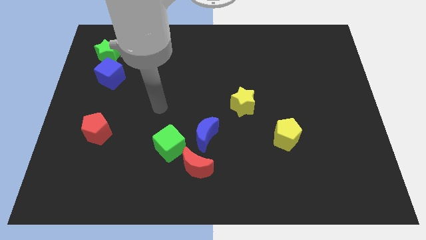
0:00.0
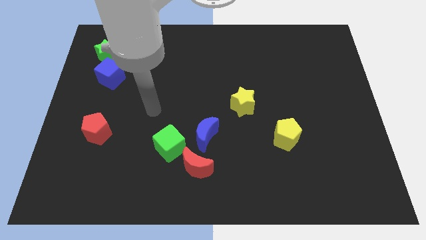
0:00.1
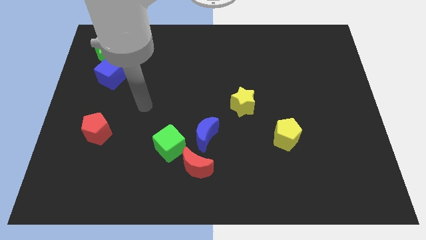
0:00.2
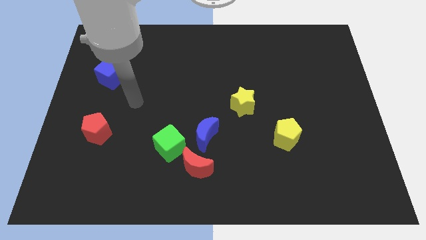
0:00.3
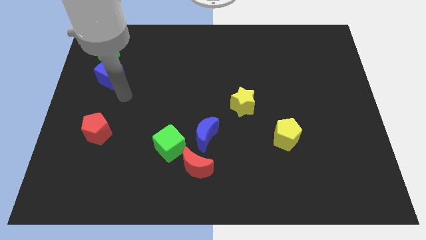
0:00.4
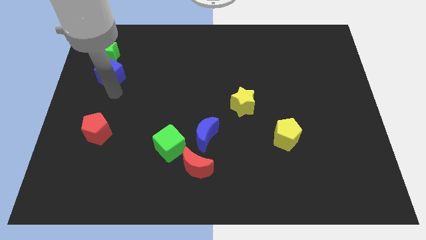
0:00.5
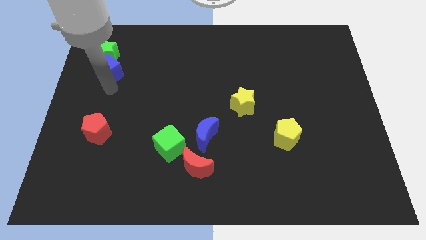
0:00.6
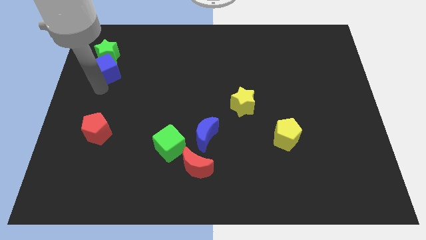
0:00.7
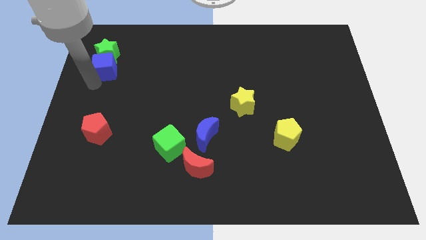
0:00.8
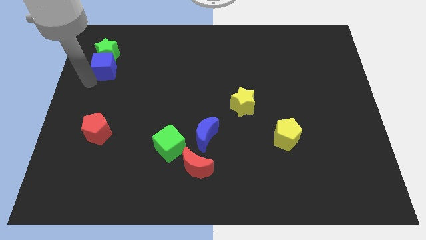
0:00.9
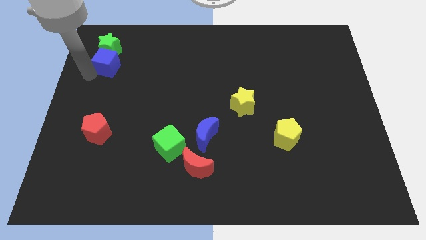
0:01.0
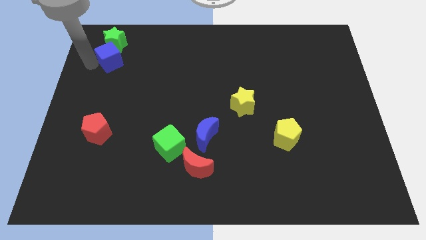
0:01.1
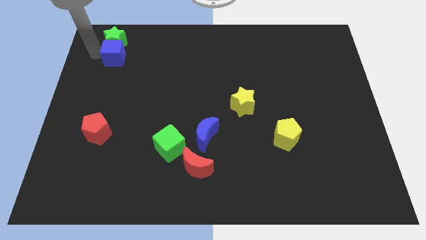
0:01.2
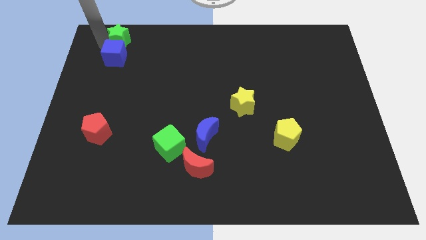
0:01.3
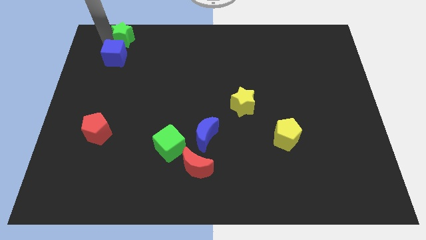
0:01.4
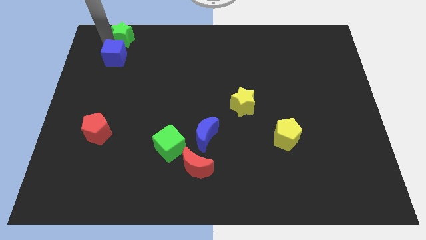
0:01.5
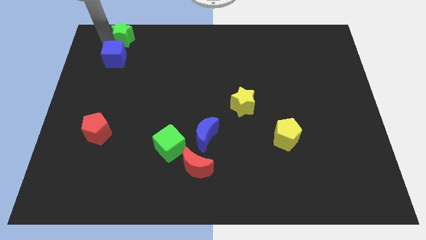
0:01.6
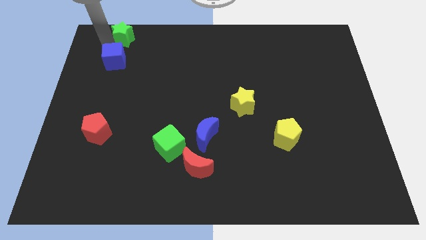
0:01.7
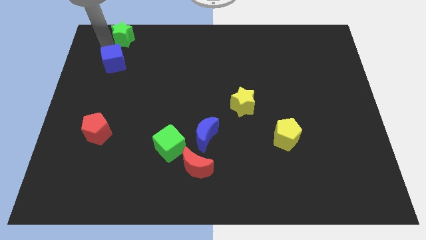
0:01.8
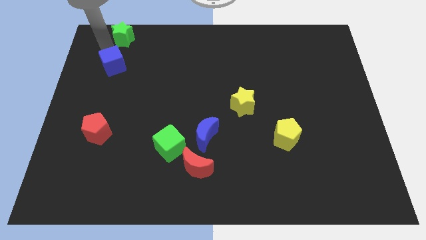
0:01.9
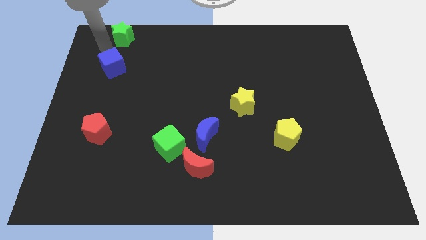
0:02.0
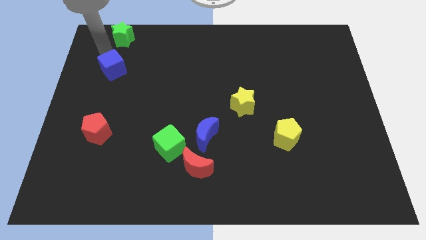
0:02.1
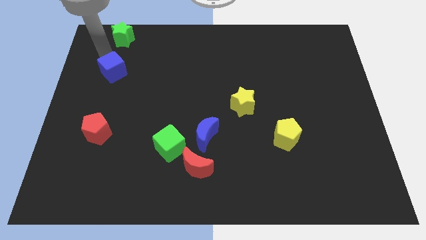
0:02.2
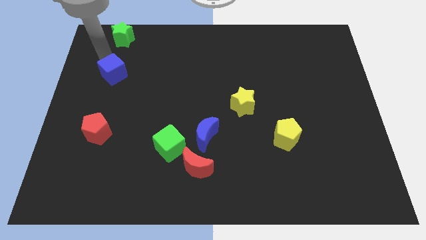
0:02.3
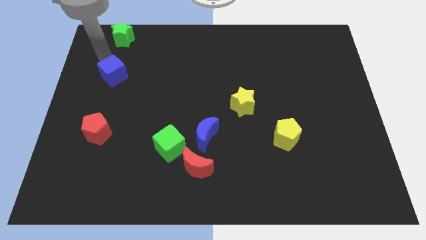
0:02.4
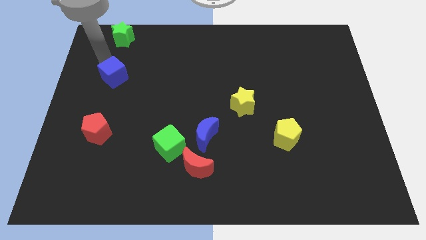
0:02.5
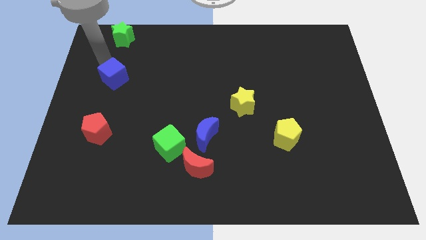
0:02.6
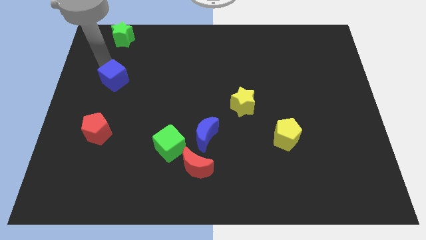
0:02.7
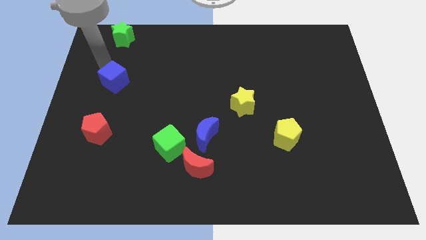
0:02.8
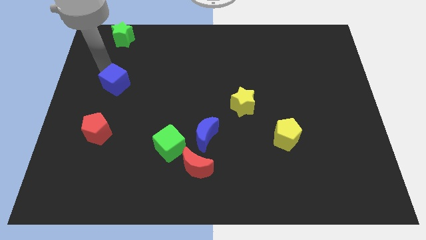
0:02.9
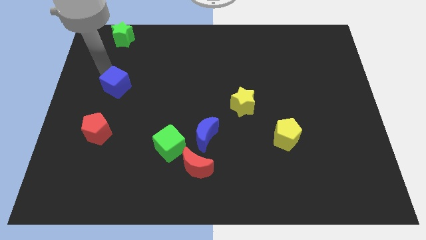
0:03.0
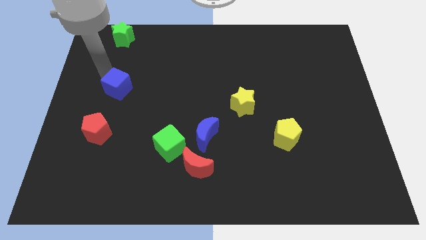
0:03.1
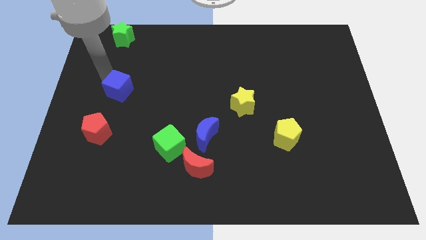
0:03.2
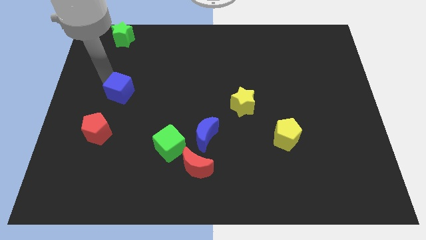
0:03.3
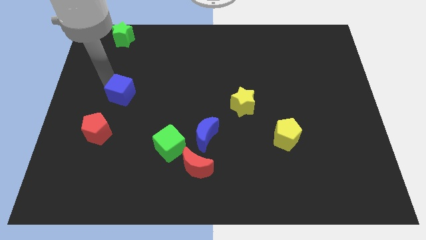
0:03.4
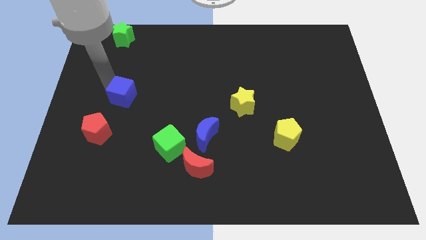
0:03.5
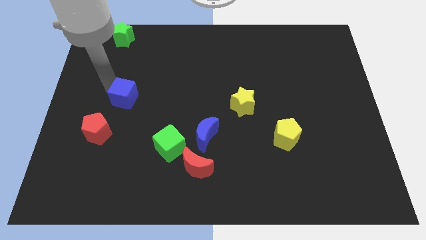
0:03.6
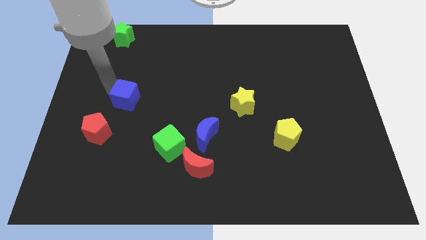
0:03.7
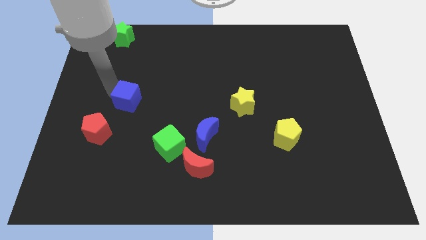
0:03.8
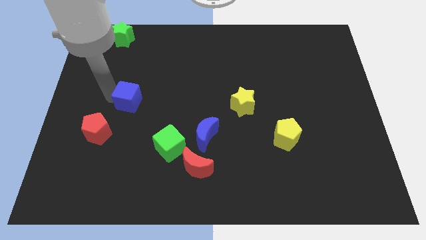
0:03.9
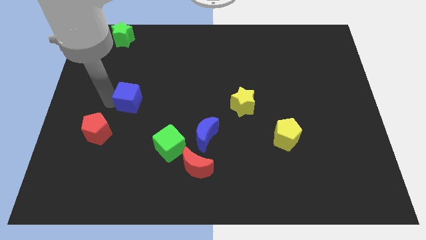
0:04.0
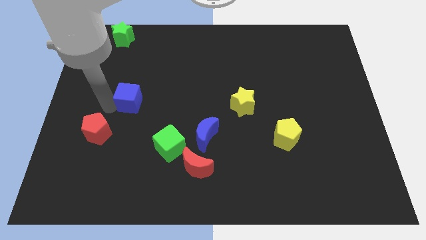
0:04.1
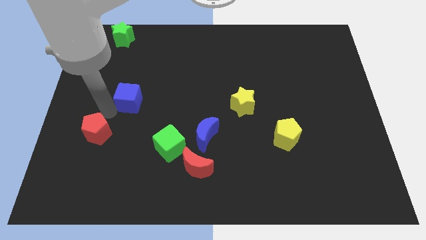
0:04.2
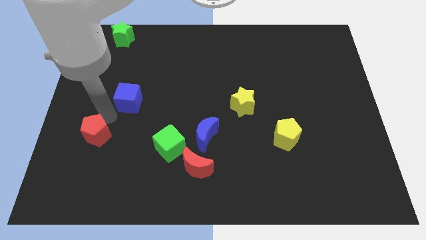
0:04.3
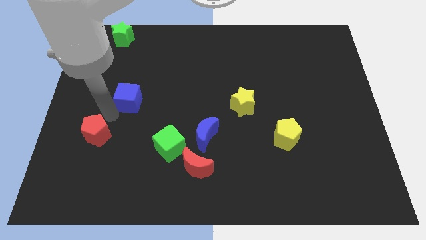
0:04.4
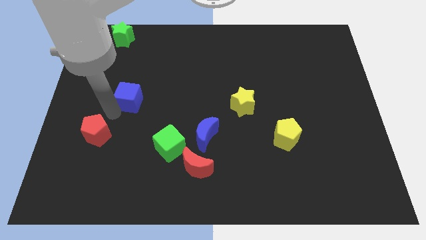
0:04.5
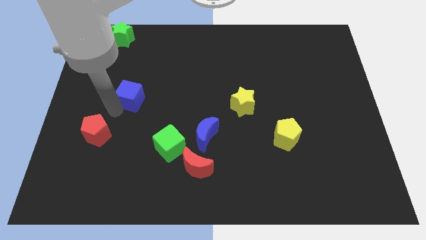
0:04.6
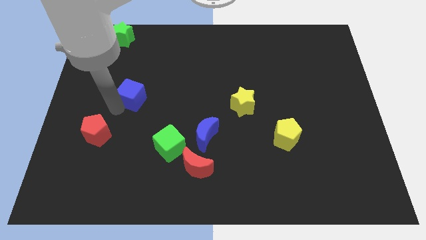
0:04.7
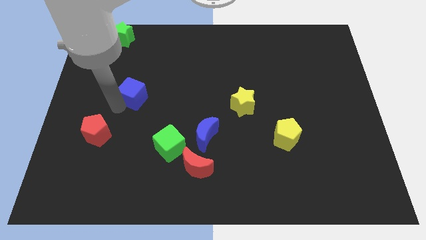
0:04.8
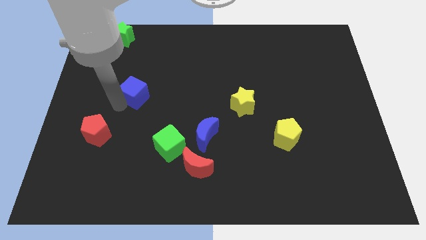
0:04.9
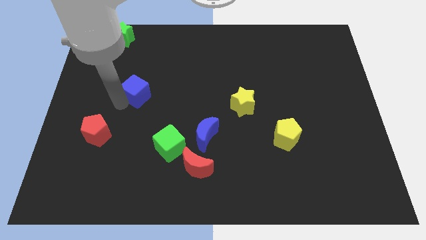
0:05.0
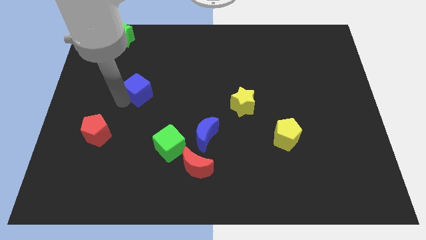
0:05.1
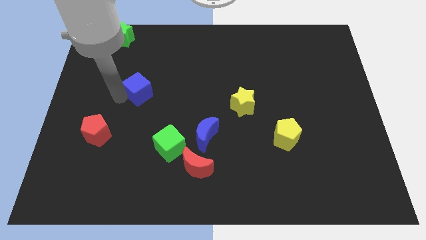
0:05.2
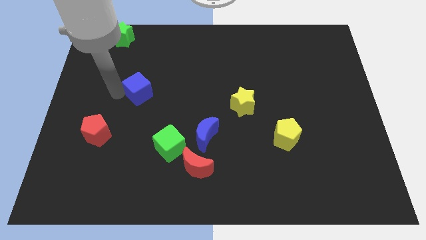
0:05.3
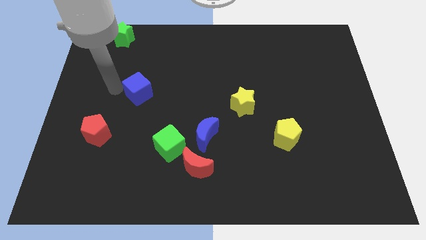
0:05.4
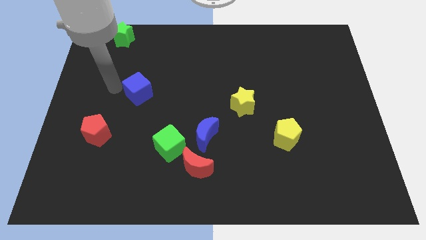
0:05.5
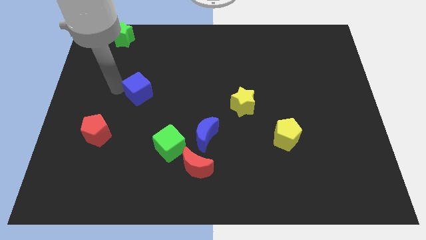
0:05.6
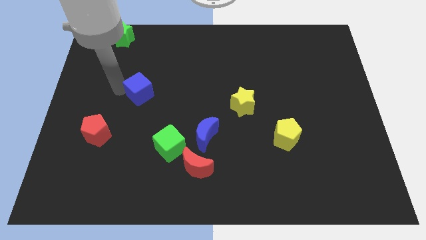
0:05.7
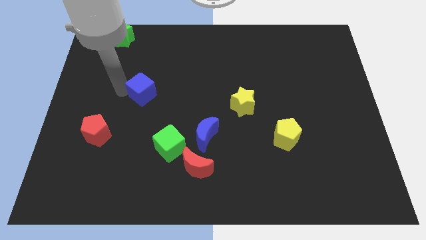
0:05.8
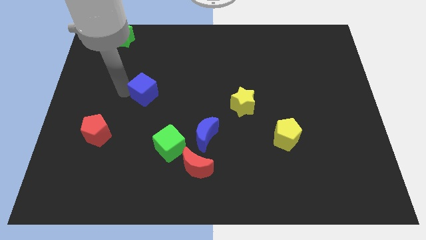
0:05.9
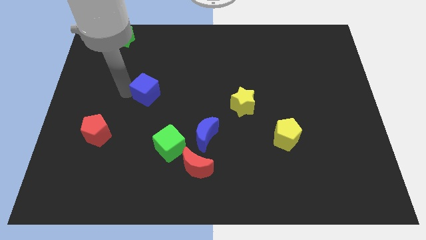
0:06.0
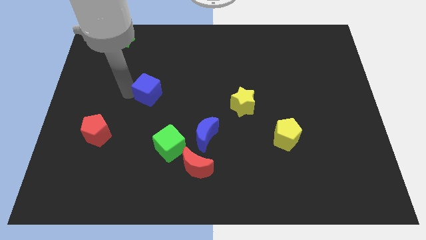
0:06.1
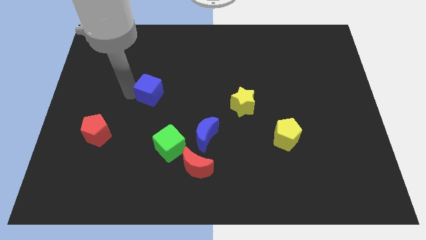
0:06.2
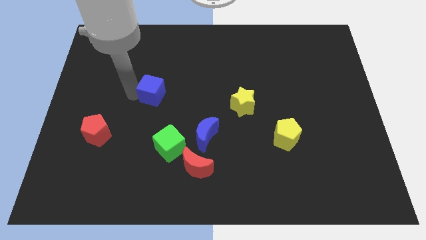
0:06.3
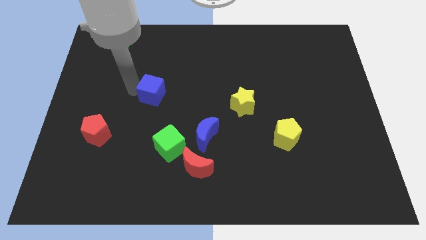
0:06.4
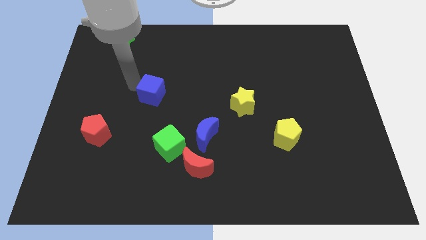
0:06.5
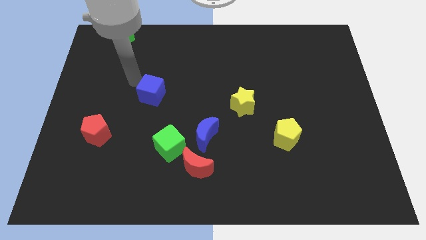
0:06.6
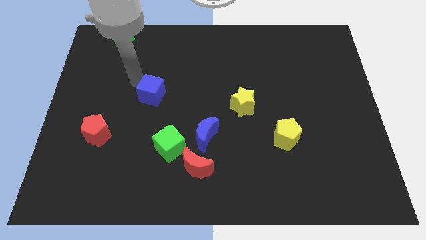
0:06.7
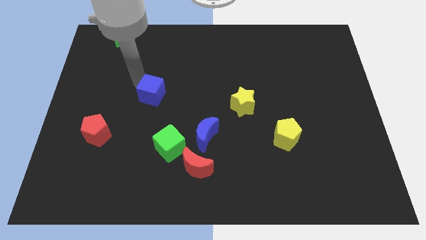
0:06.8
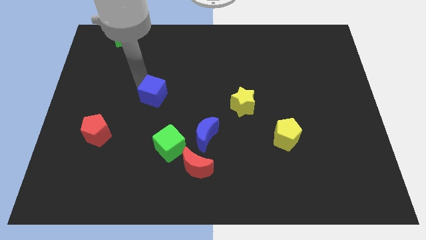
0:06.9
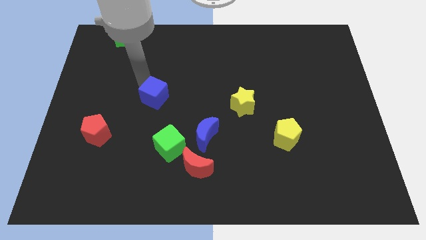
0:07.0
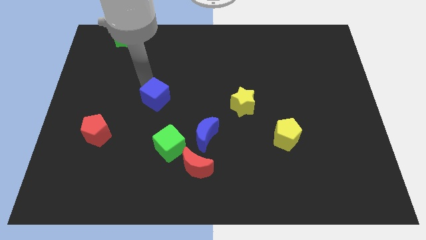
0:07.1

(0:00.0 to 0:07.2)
push the blue cube to the top of the green cube

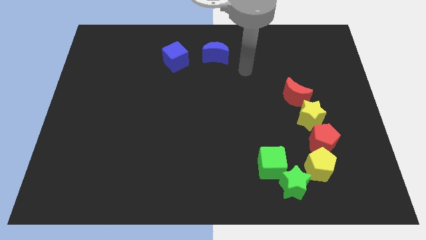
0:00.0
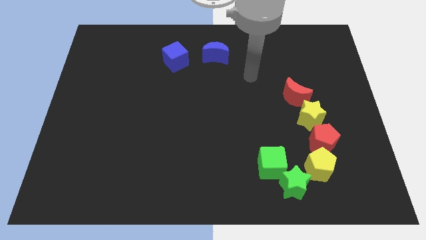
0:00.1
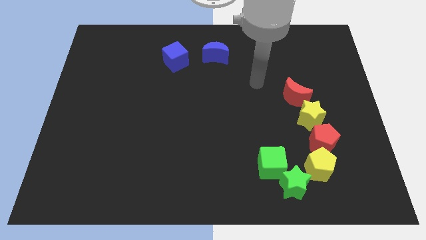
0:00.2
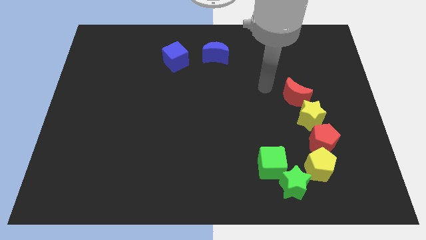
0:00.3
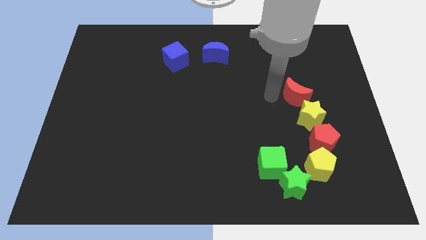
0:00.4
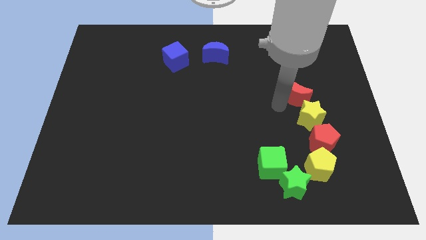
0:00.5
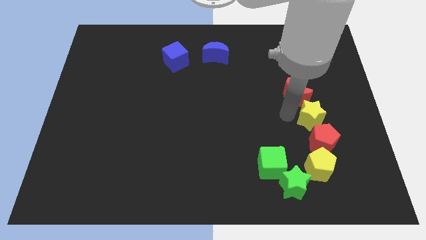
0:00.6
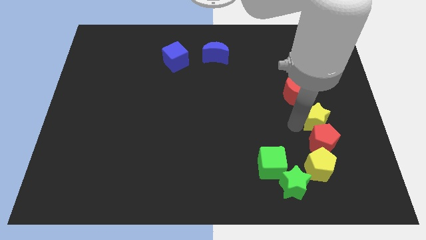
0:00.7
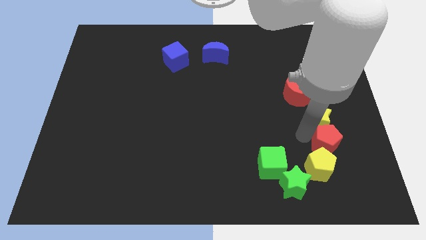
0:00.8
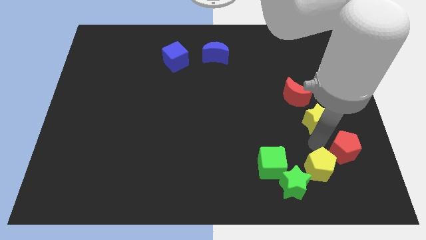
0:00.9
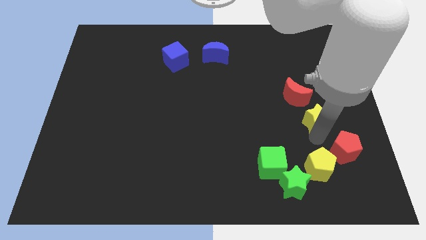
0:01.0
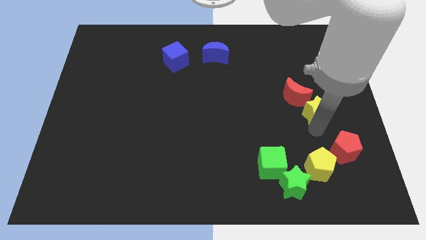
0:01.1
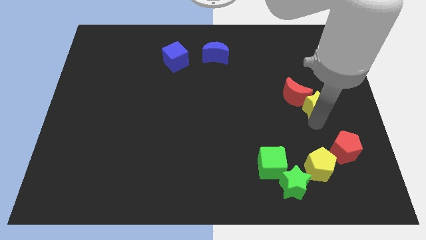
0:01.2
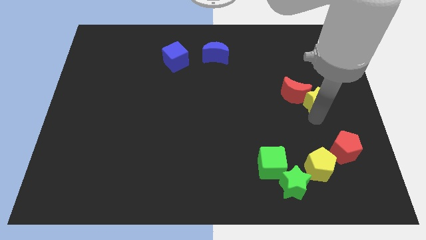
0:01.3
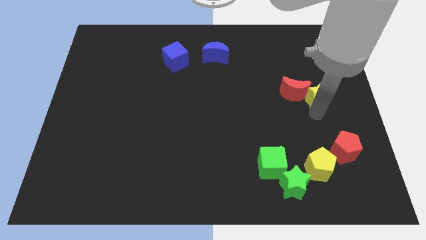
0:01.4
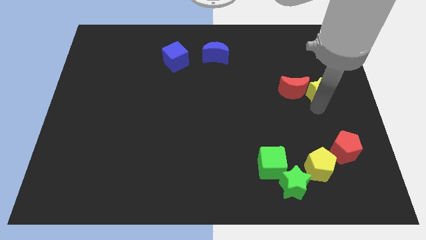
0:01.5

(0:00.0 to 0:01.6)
move the yellow star to the top right of the red moon
